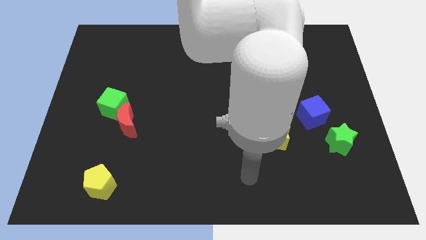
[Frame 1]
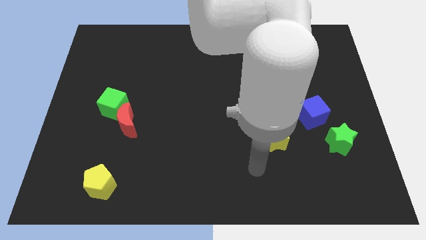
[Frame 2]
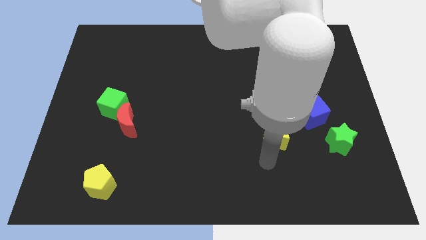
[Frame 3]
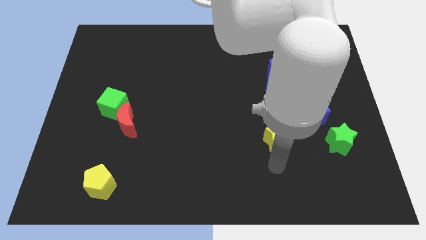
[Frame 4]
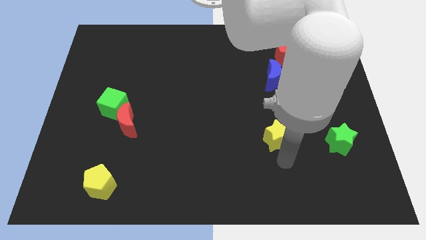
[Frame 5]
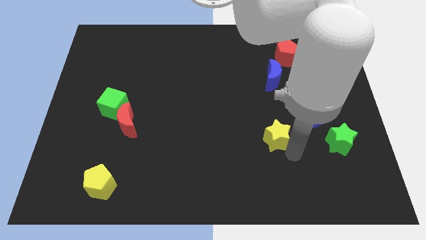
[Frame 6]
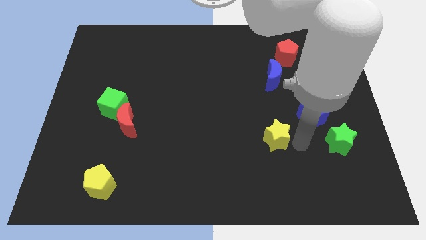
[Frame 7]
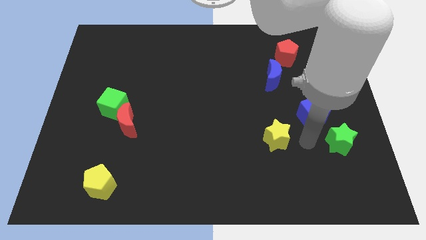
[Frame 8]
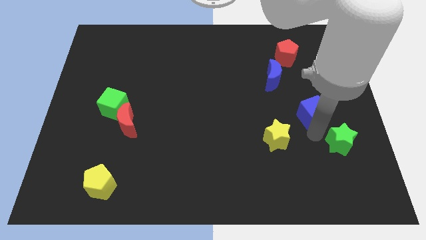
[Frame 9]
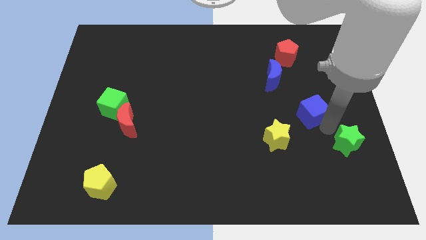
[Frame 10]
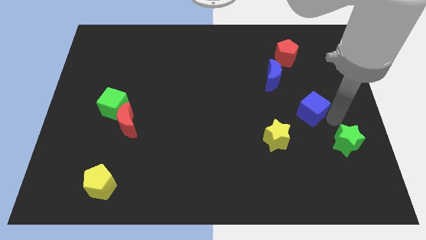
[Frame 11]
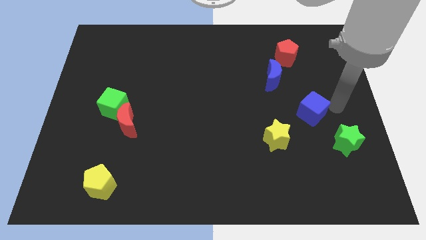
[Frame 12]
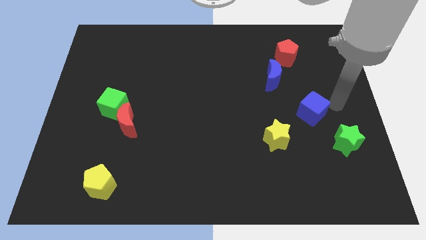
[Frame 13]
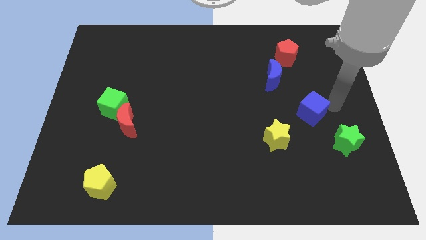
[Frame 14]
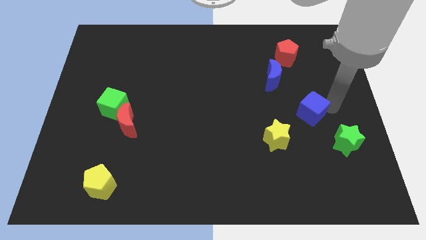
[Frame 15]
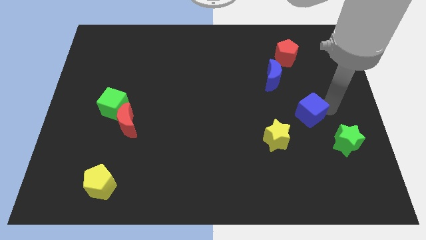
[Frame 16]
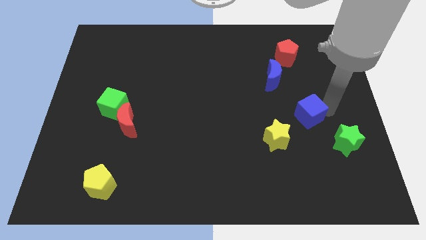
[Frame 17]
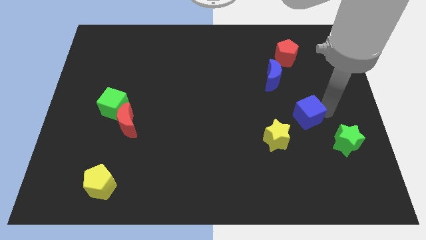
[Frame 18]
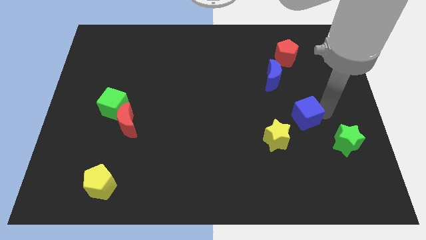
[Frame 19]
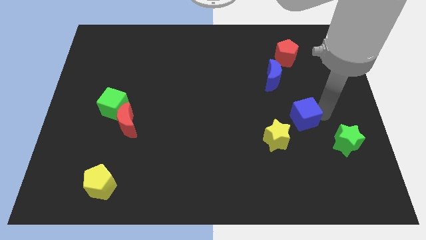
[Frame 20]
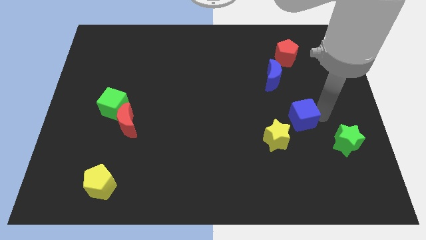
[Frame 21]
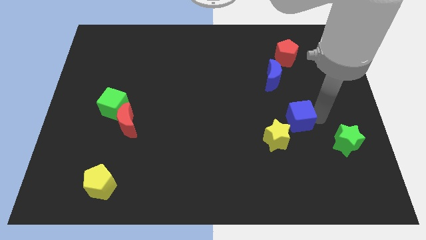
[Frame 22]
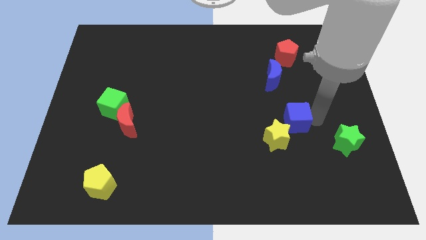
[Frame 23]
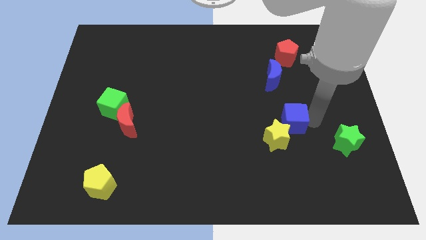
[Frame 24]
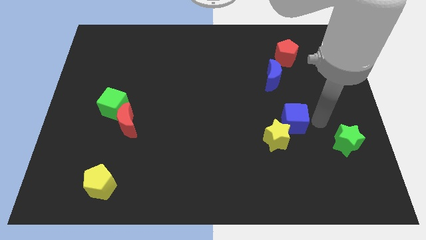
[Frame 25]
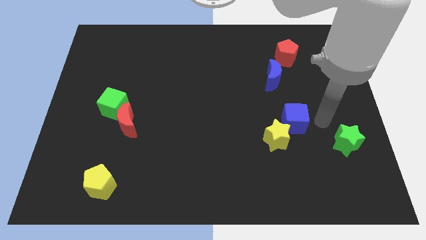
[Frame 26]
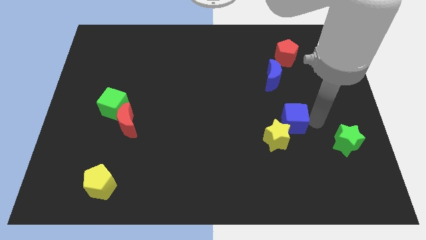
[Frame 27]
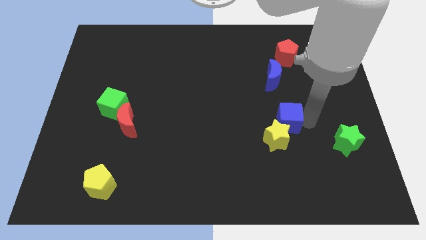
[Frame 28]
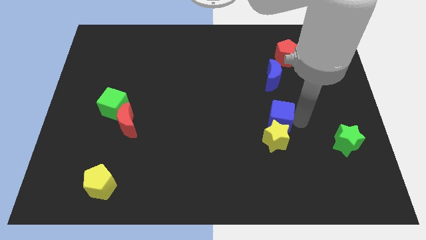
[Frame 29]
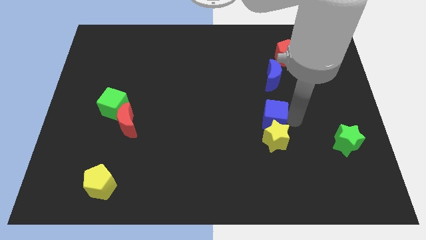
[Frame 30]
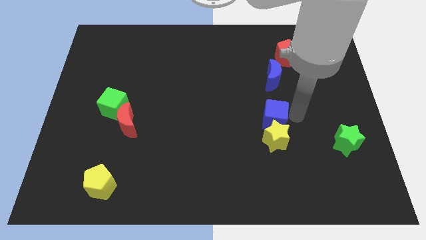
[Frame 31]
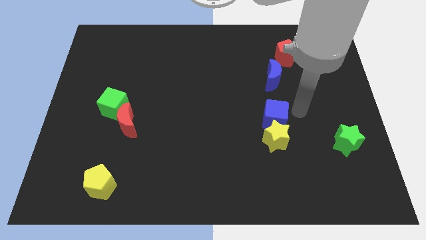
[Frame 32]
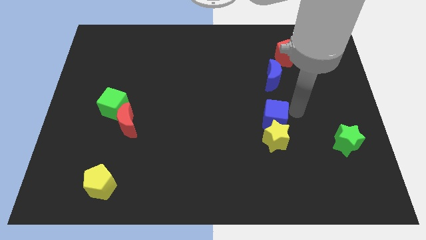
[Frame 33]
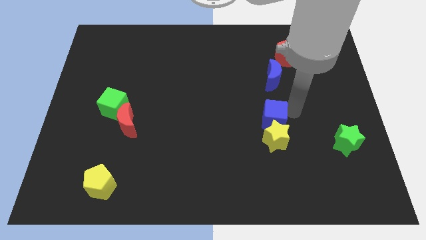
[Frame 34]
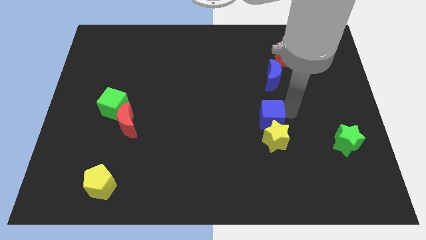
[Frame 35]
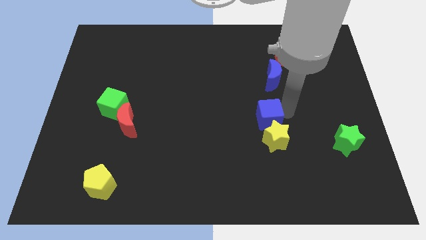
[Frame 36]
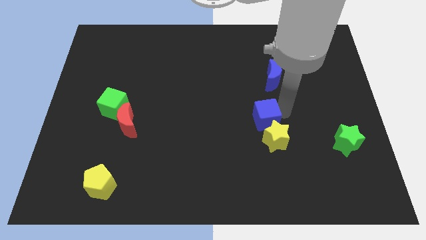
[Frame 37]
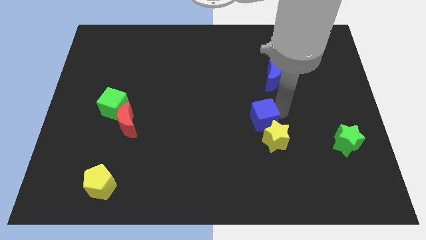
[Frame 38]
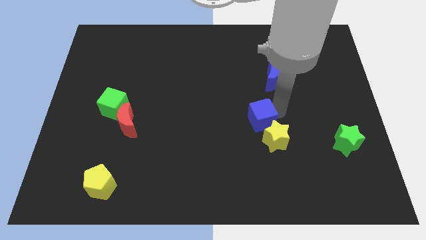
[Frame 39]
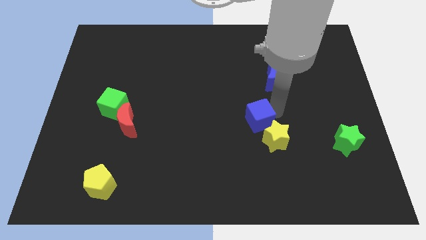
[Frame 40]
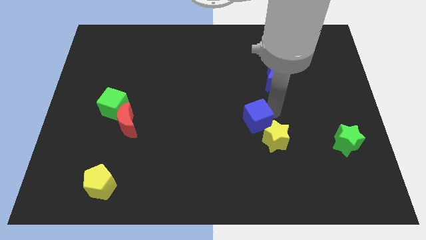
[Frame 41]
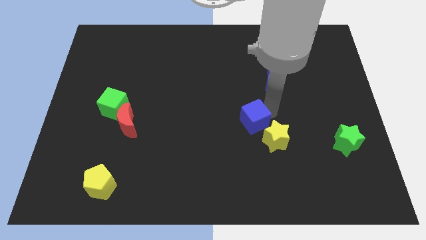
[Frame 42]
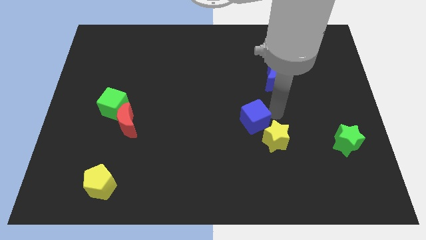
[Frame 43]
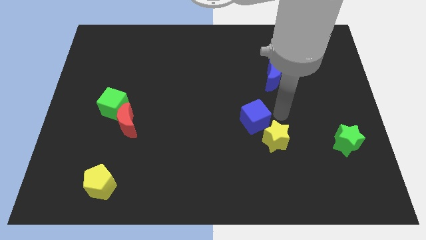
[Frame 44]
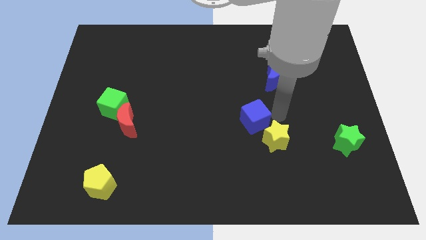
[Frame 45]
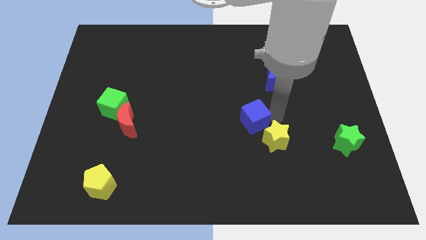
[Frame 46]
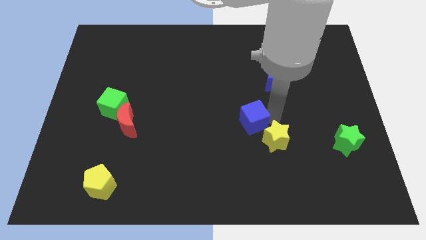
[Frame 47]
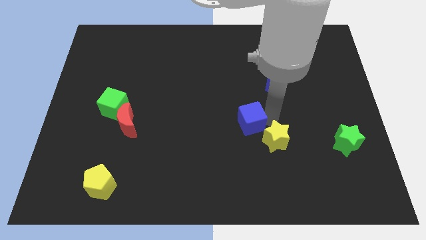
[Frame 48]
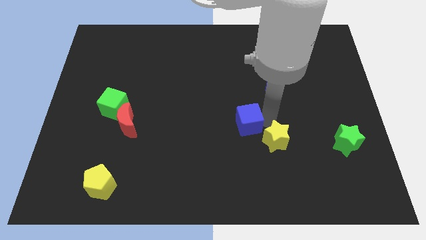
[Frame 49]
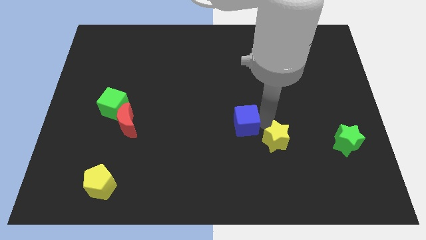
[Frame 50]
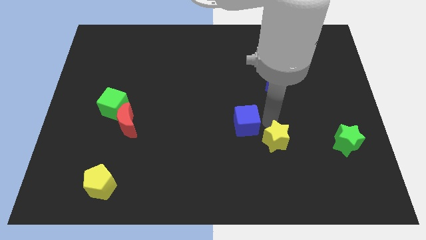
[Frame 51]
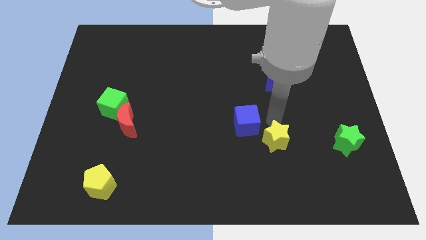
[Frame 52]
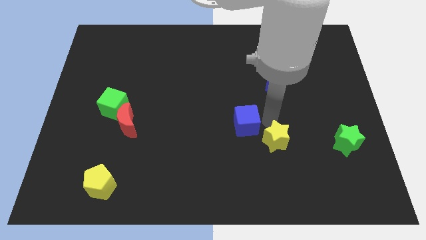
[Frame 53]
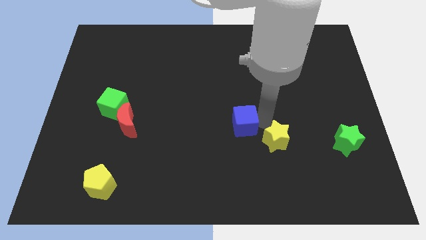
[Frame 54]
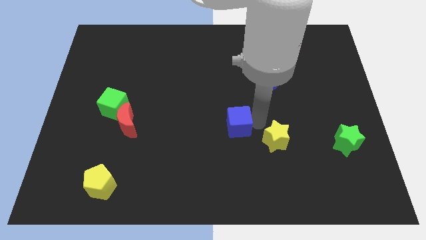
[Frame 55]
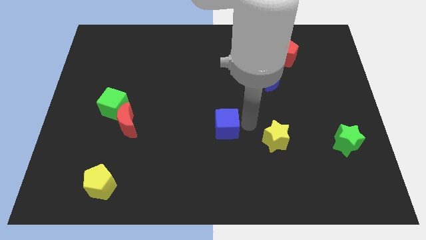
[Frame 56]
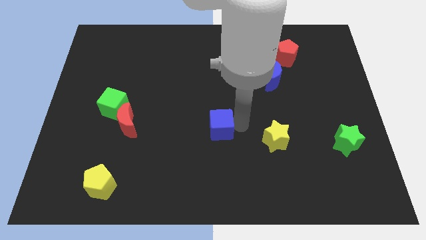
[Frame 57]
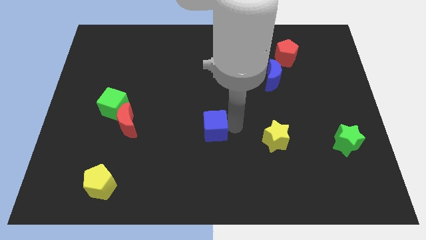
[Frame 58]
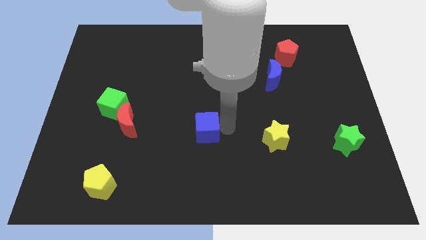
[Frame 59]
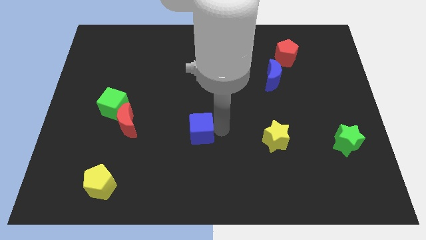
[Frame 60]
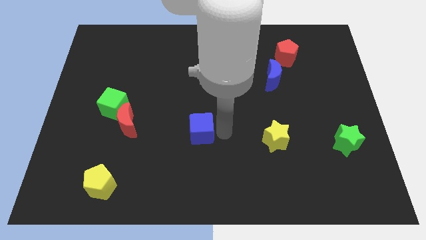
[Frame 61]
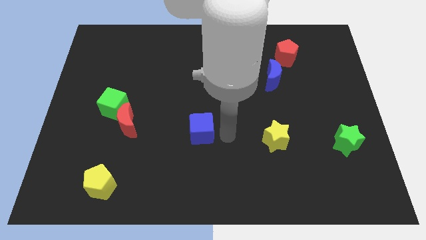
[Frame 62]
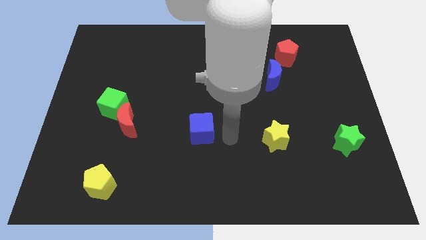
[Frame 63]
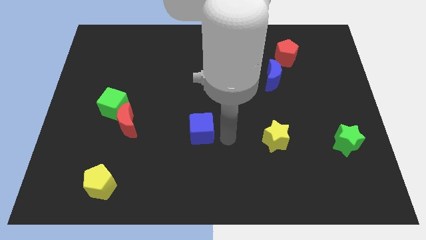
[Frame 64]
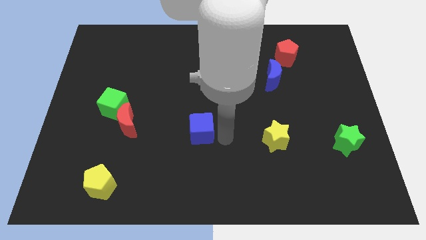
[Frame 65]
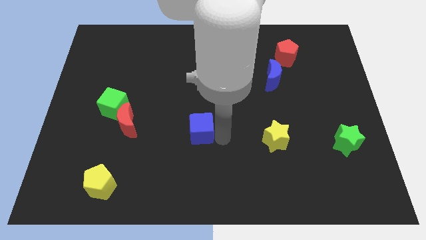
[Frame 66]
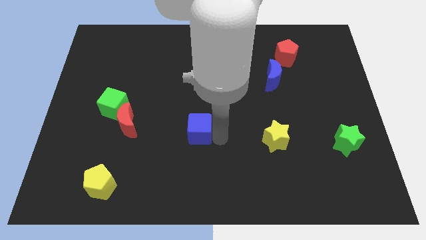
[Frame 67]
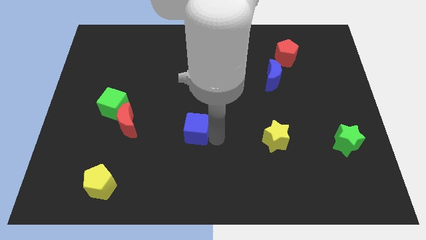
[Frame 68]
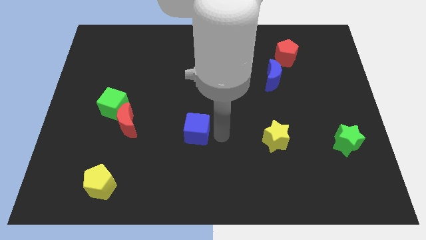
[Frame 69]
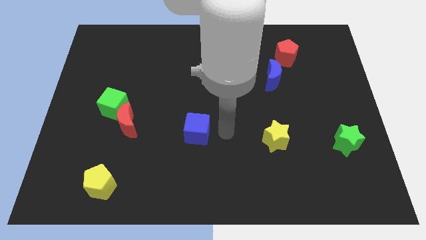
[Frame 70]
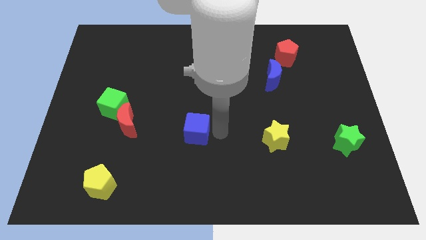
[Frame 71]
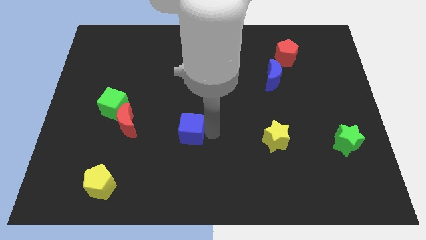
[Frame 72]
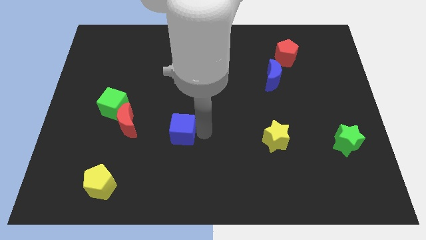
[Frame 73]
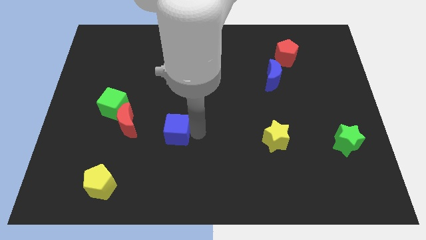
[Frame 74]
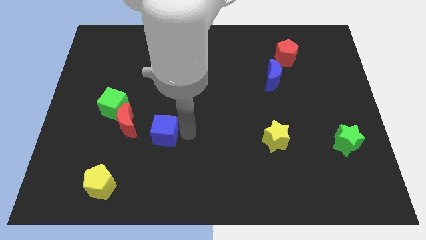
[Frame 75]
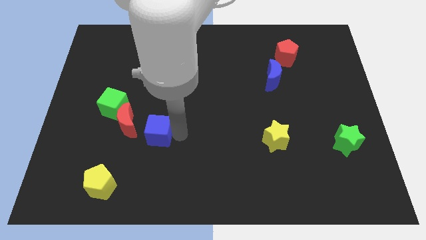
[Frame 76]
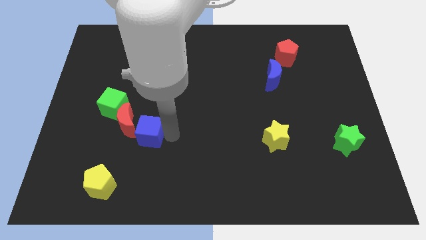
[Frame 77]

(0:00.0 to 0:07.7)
move the blue cube diagonally down and to the right of the green cube
